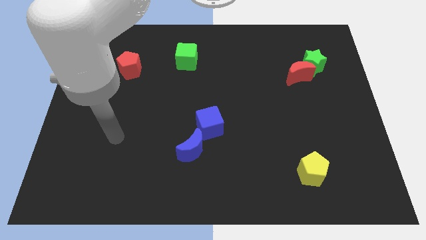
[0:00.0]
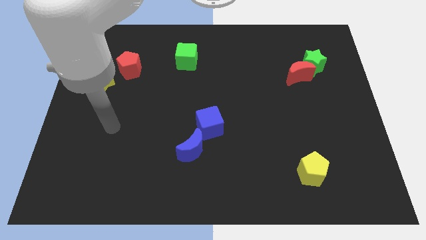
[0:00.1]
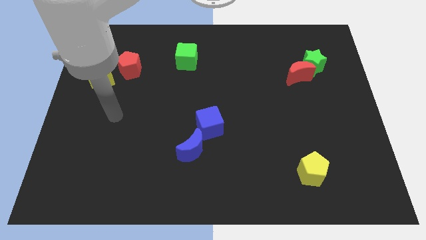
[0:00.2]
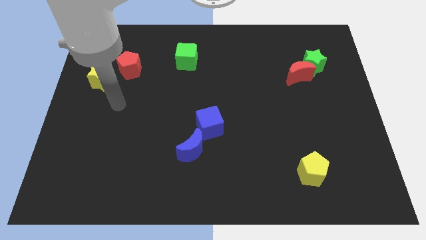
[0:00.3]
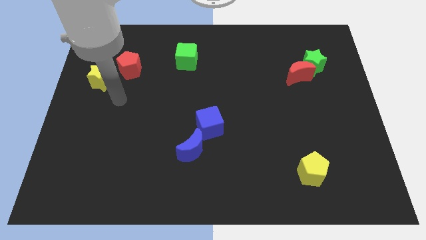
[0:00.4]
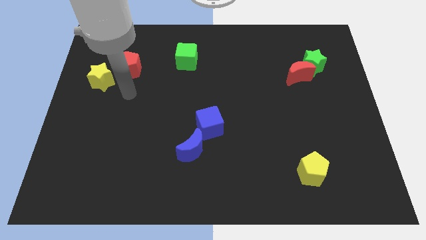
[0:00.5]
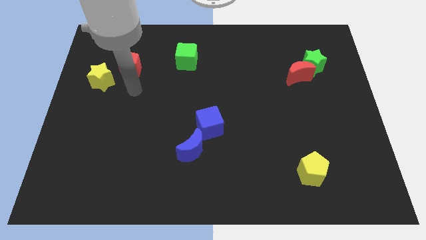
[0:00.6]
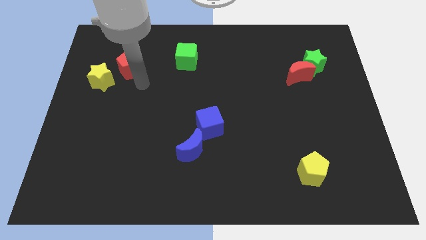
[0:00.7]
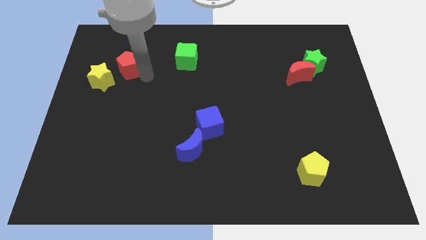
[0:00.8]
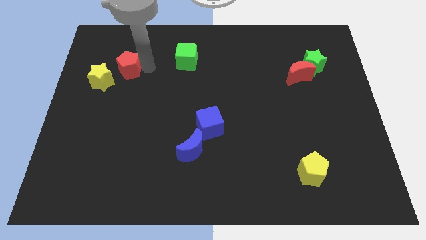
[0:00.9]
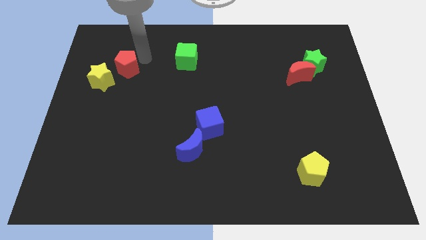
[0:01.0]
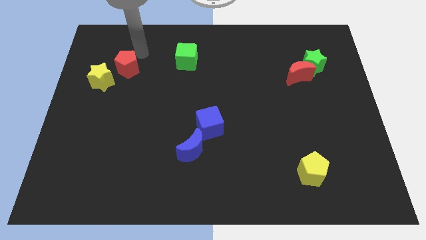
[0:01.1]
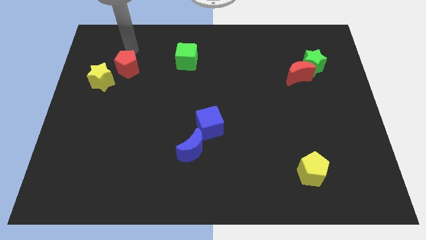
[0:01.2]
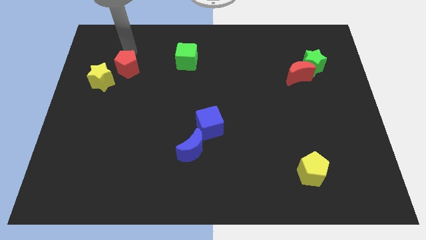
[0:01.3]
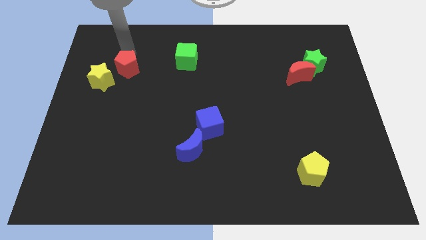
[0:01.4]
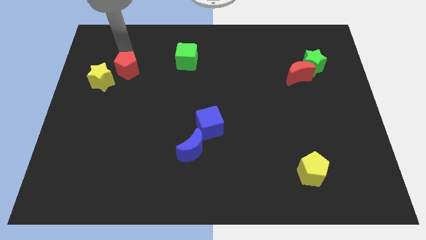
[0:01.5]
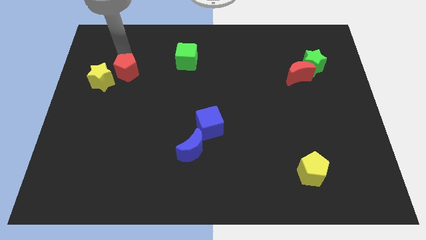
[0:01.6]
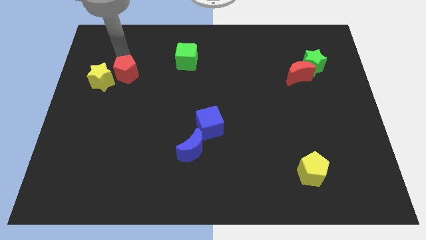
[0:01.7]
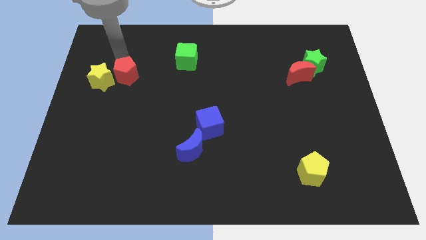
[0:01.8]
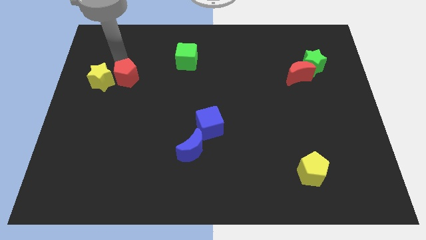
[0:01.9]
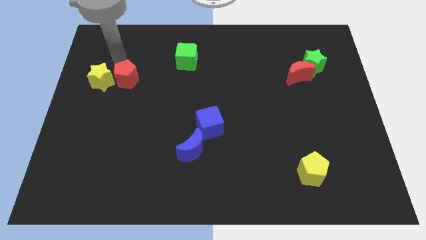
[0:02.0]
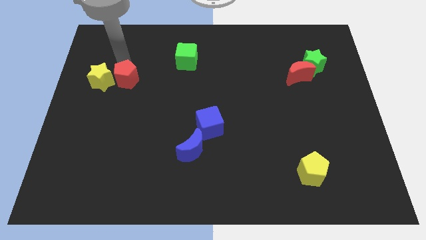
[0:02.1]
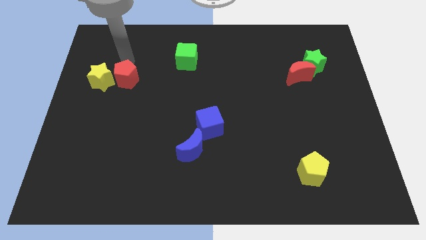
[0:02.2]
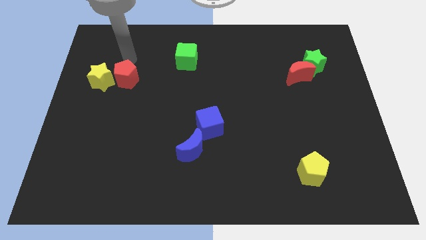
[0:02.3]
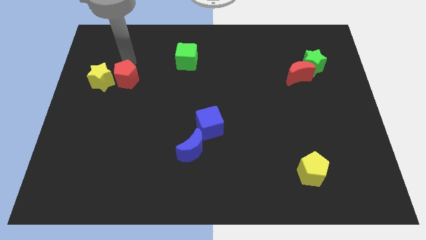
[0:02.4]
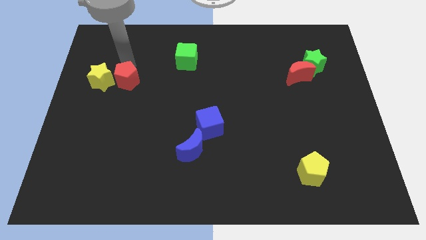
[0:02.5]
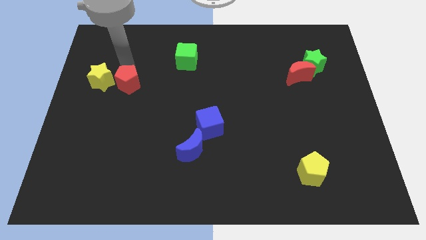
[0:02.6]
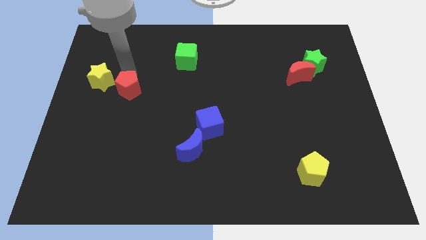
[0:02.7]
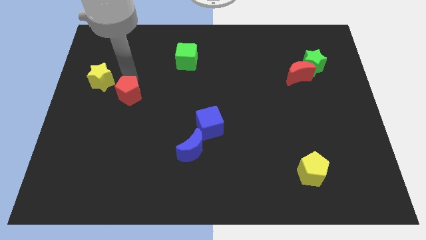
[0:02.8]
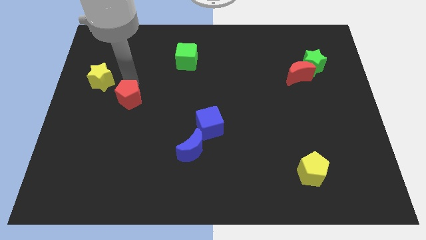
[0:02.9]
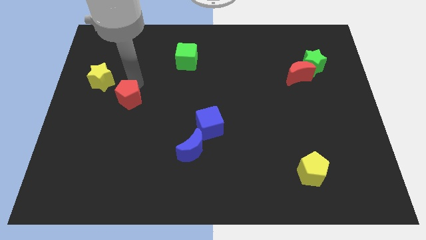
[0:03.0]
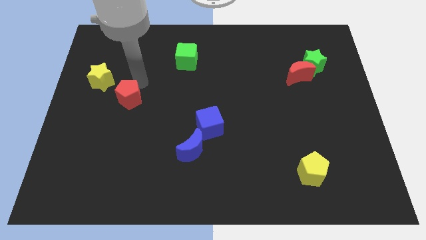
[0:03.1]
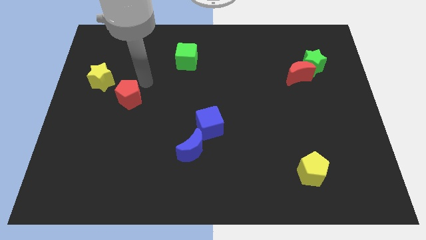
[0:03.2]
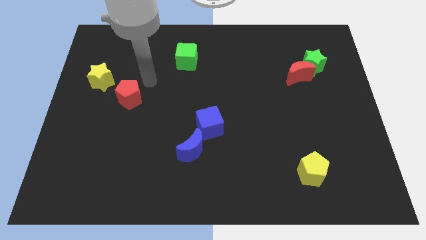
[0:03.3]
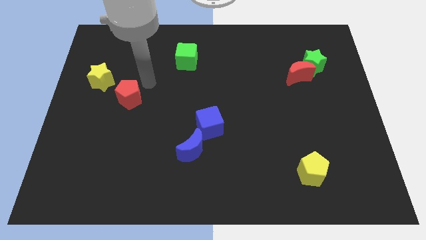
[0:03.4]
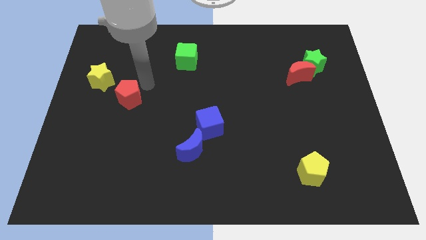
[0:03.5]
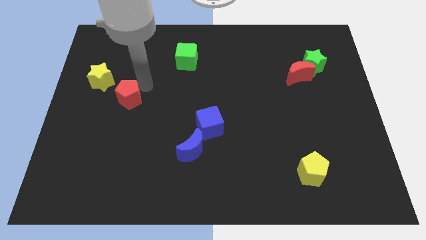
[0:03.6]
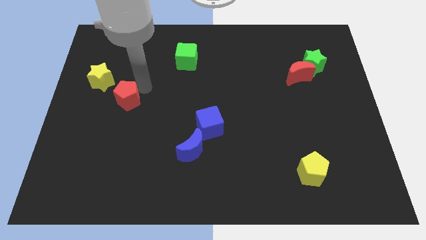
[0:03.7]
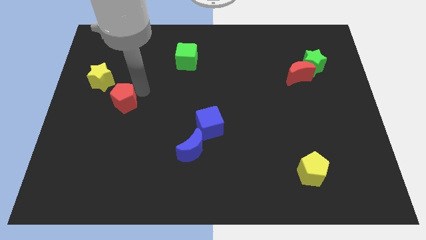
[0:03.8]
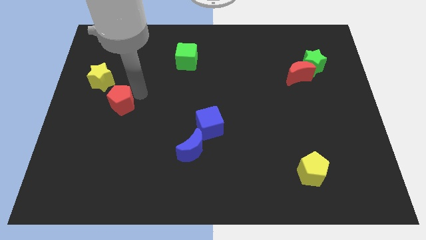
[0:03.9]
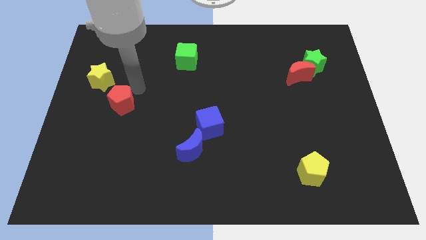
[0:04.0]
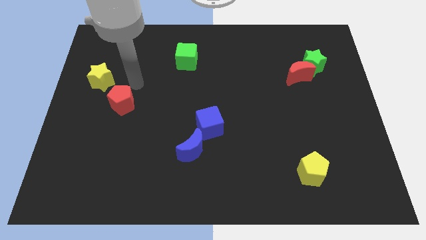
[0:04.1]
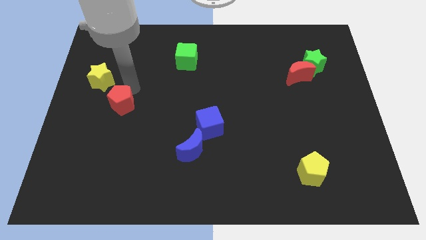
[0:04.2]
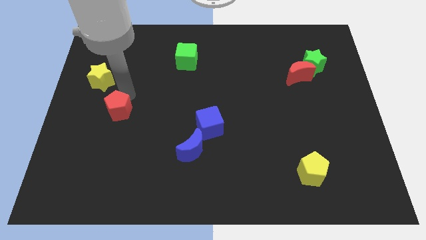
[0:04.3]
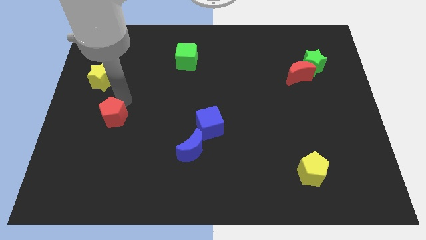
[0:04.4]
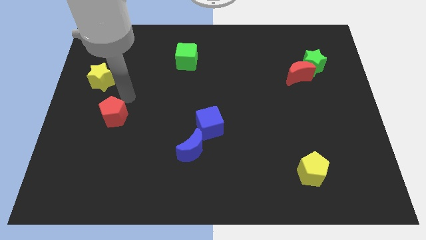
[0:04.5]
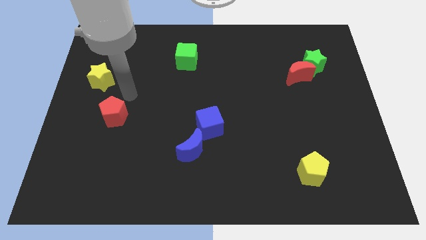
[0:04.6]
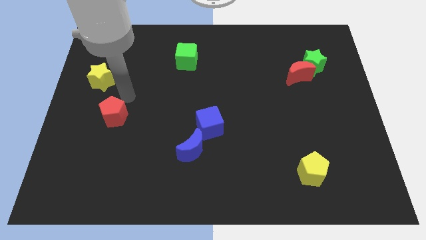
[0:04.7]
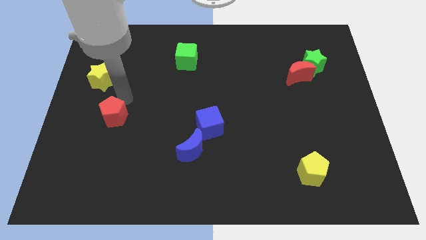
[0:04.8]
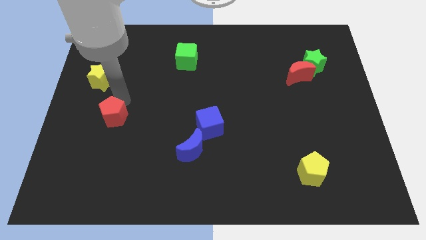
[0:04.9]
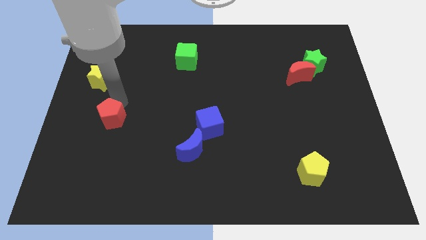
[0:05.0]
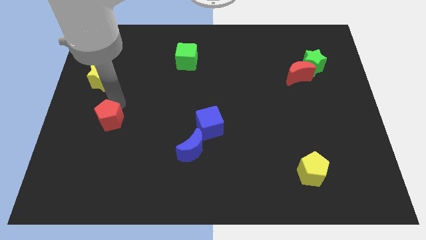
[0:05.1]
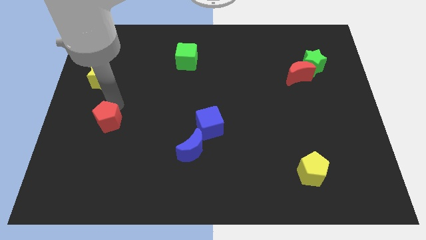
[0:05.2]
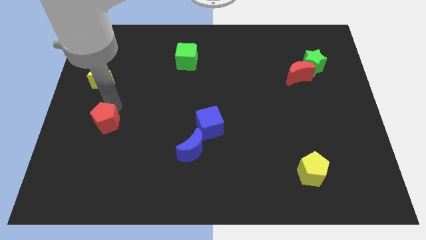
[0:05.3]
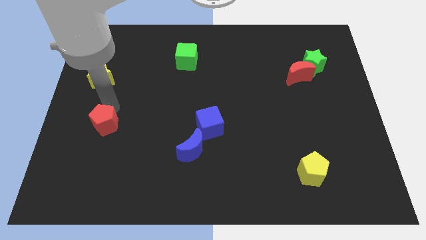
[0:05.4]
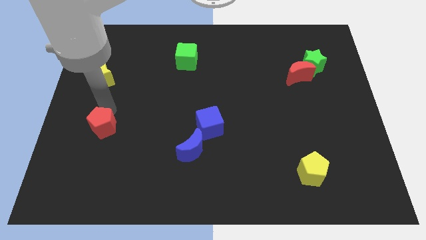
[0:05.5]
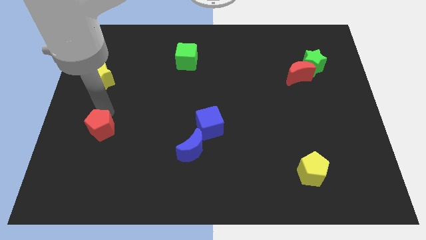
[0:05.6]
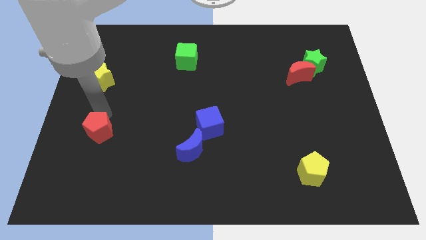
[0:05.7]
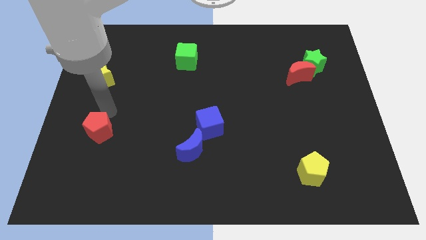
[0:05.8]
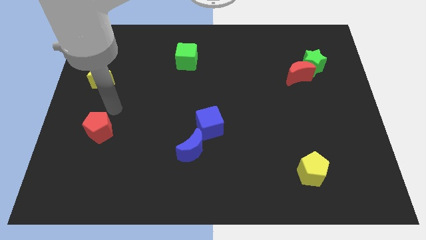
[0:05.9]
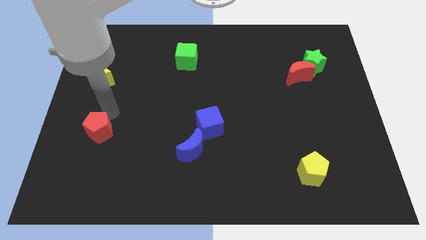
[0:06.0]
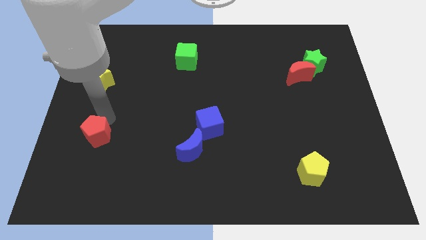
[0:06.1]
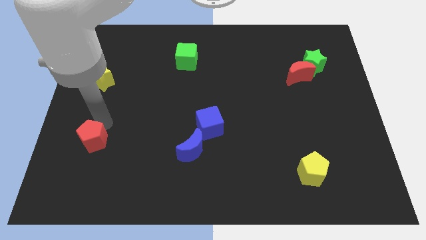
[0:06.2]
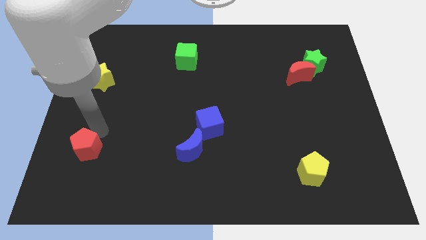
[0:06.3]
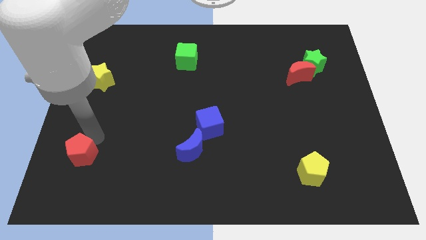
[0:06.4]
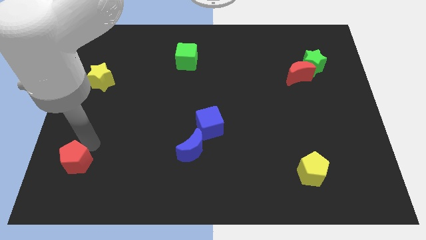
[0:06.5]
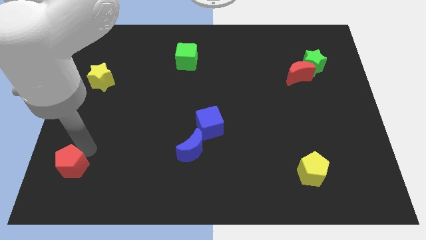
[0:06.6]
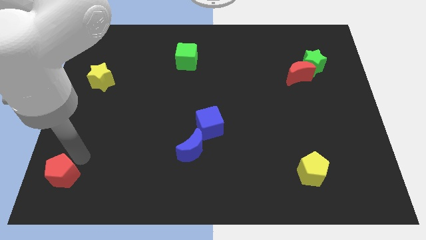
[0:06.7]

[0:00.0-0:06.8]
put the red pentagon to the lower left corner

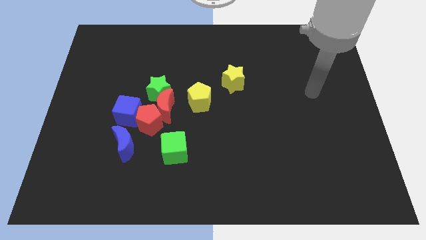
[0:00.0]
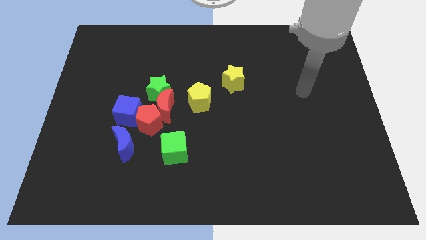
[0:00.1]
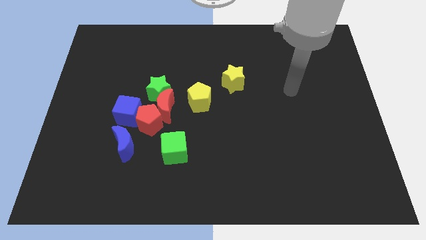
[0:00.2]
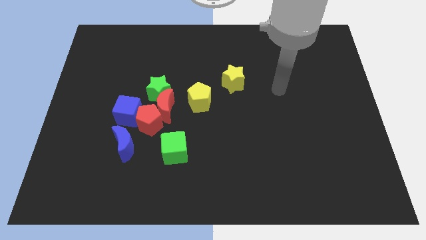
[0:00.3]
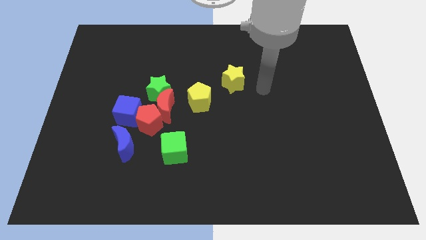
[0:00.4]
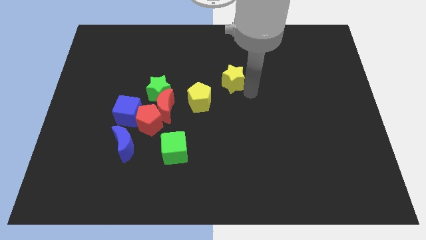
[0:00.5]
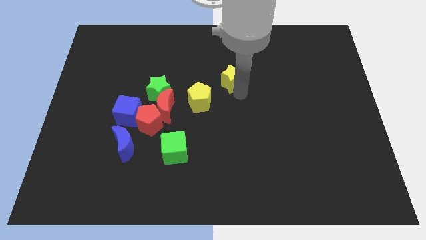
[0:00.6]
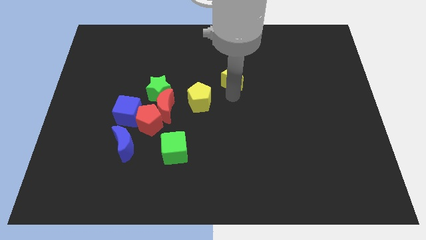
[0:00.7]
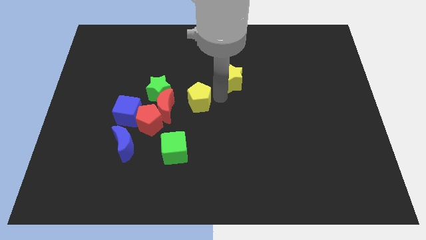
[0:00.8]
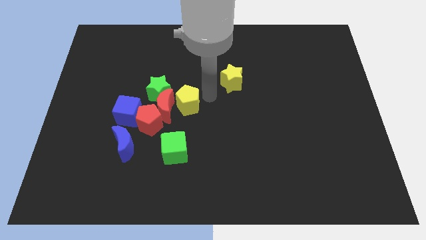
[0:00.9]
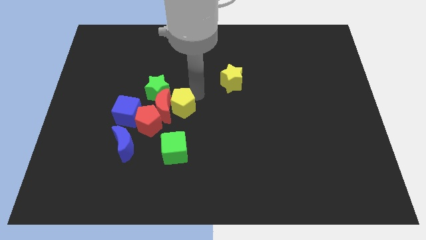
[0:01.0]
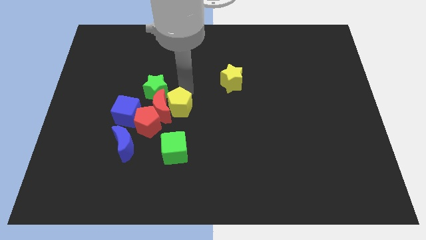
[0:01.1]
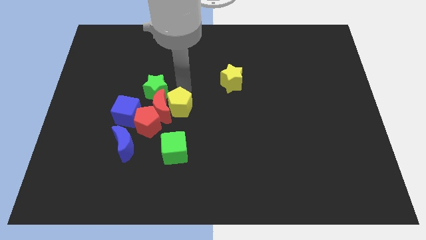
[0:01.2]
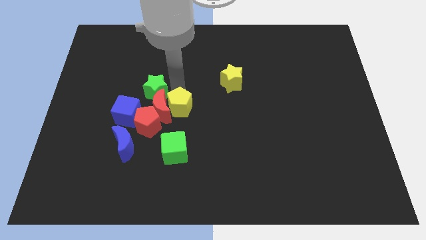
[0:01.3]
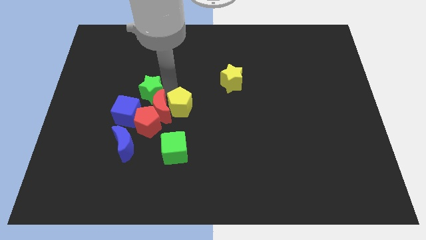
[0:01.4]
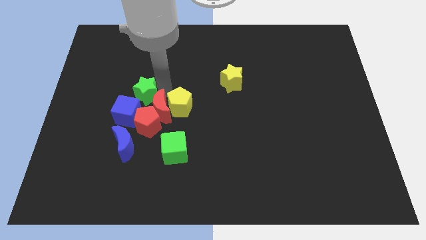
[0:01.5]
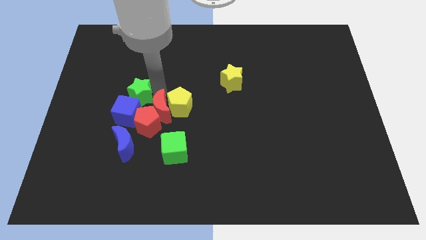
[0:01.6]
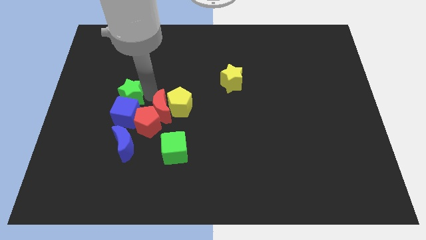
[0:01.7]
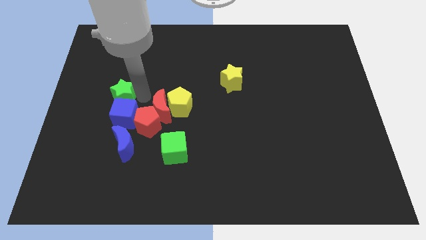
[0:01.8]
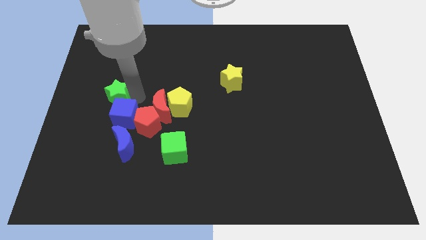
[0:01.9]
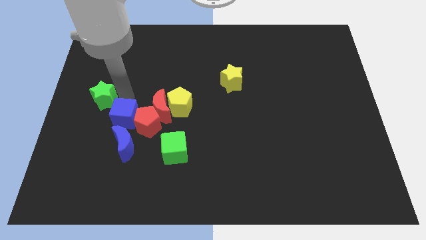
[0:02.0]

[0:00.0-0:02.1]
slide the green star to the left side
